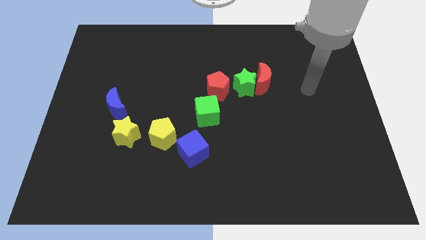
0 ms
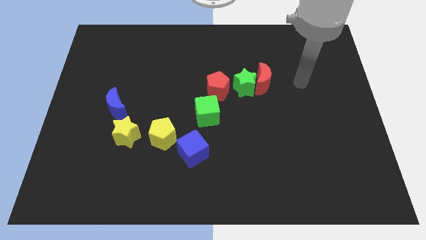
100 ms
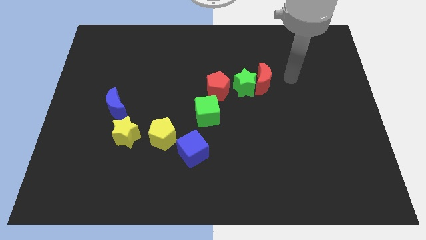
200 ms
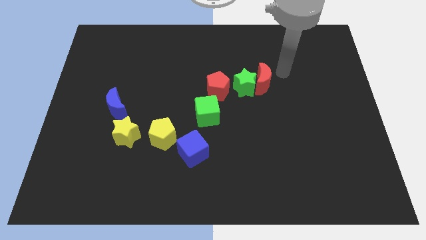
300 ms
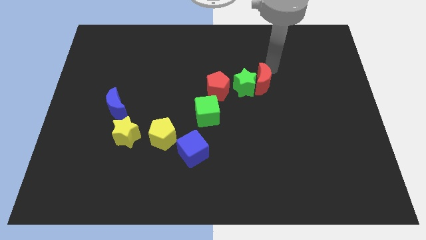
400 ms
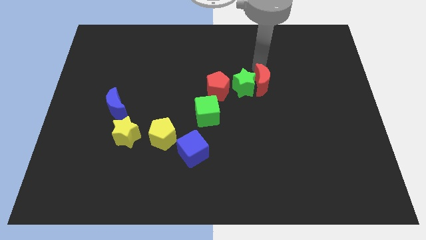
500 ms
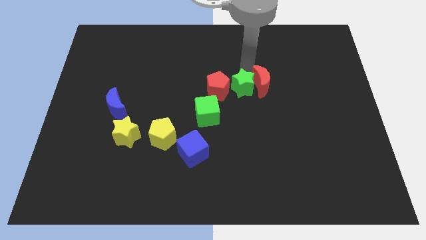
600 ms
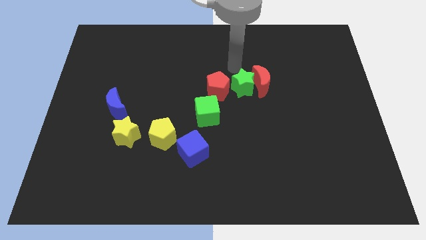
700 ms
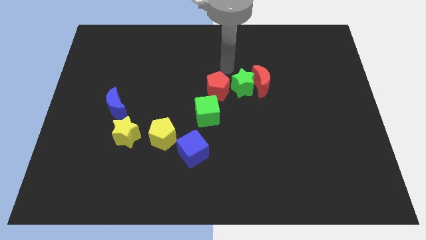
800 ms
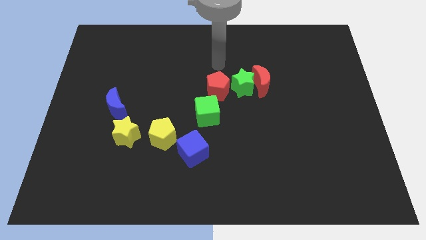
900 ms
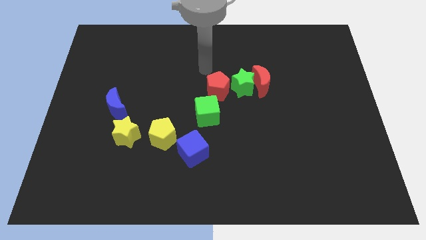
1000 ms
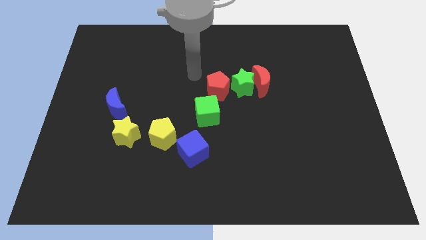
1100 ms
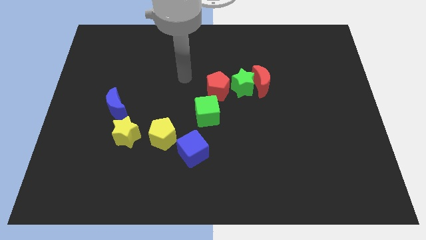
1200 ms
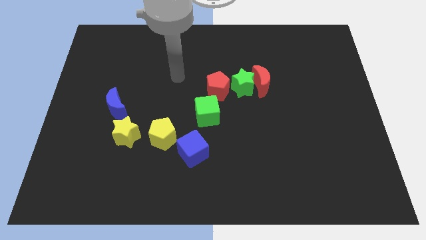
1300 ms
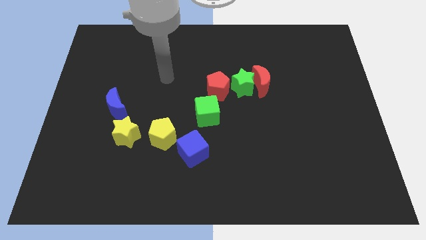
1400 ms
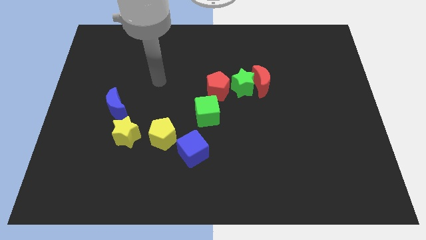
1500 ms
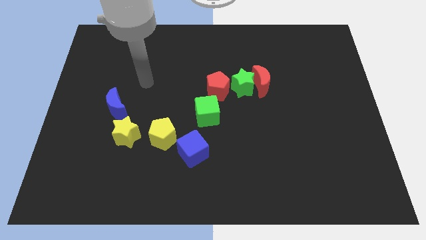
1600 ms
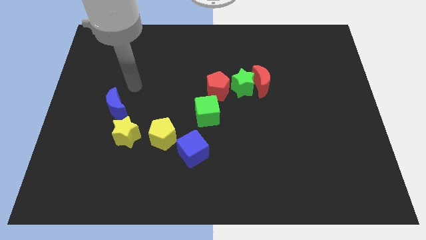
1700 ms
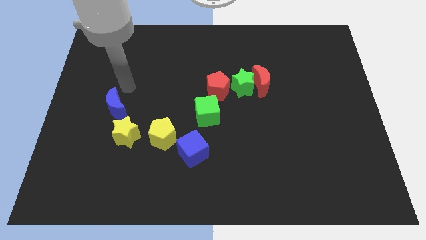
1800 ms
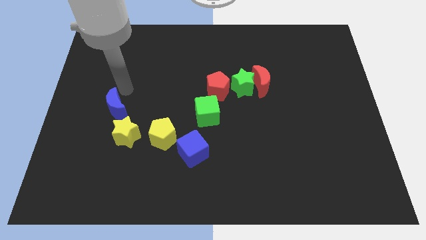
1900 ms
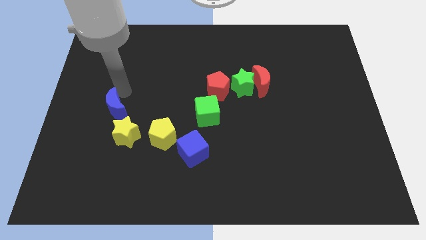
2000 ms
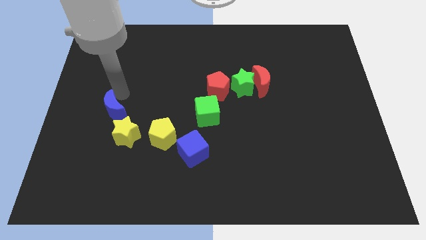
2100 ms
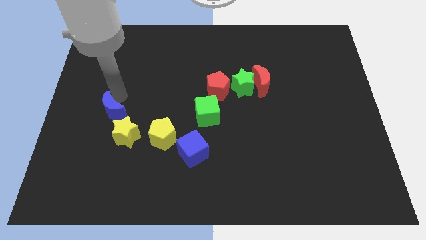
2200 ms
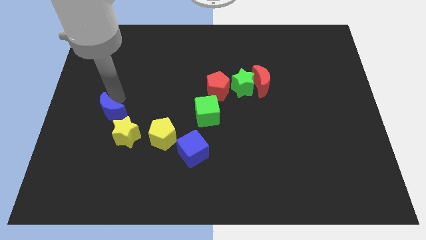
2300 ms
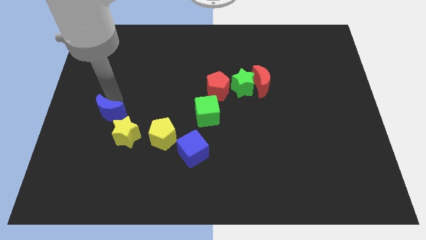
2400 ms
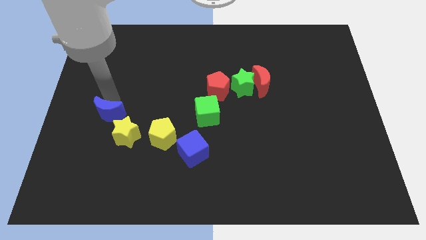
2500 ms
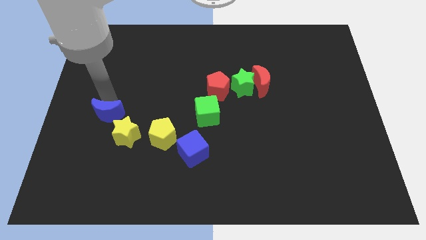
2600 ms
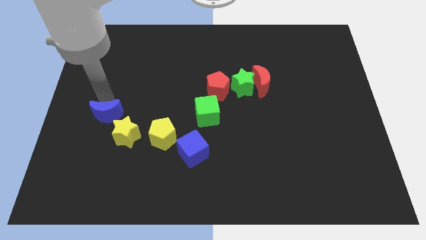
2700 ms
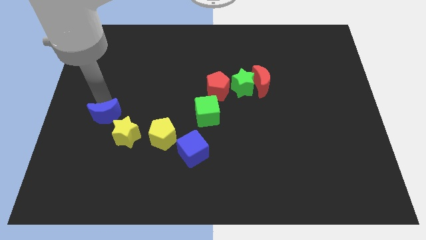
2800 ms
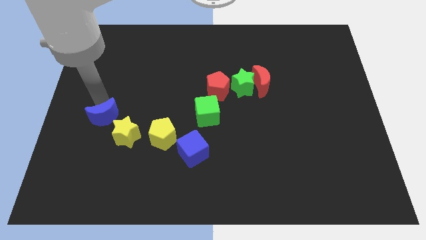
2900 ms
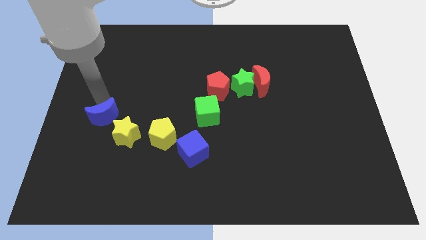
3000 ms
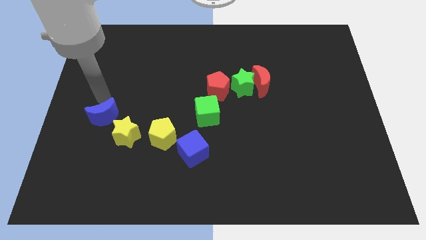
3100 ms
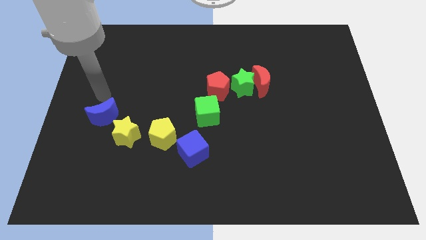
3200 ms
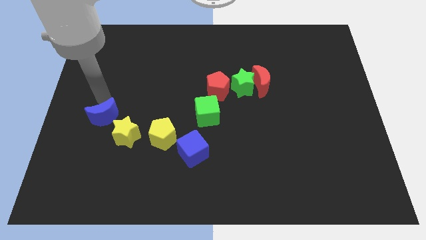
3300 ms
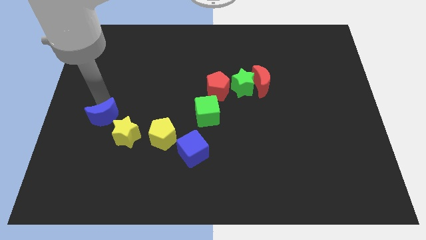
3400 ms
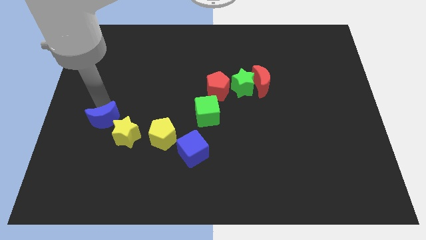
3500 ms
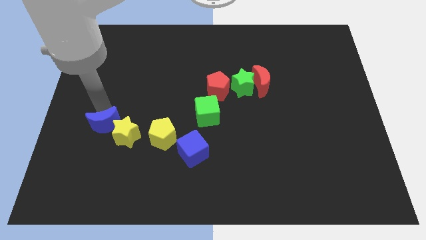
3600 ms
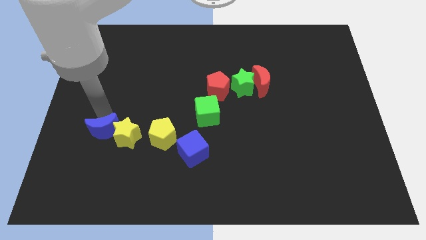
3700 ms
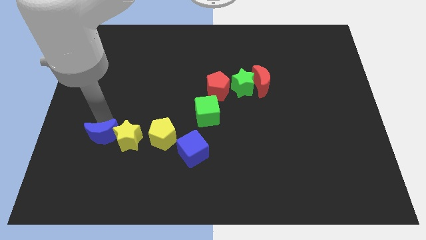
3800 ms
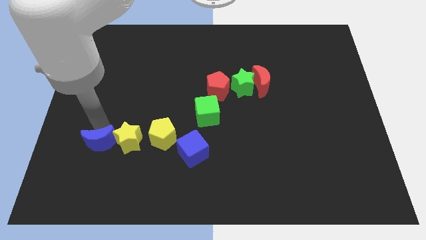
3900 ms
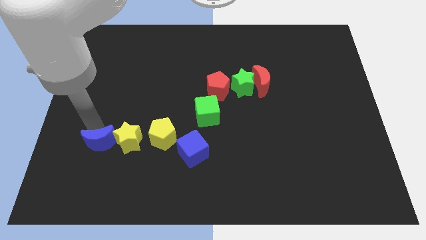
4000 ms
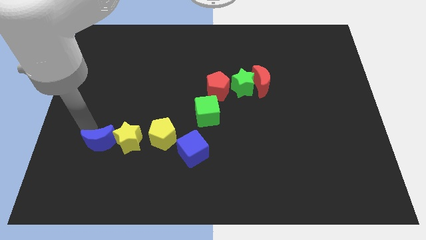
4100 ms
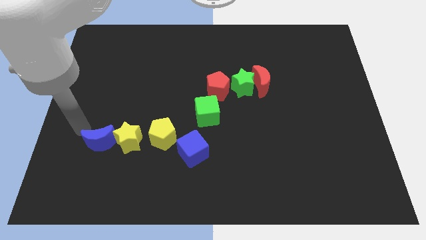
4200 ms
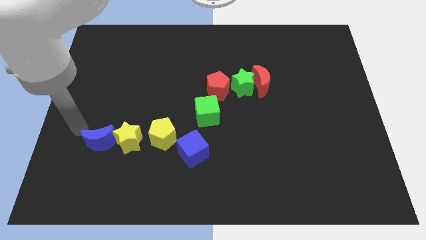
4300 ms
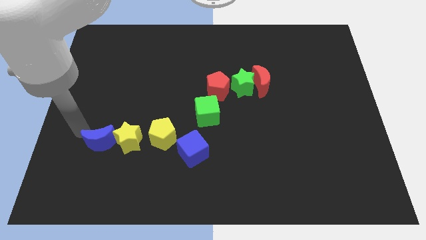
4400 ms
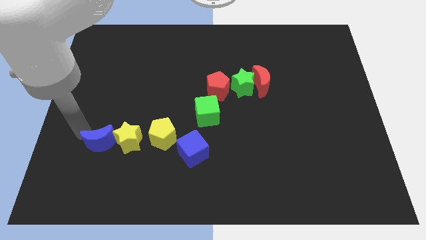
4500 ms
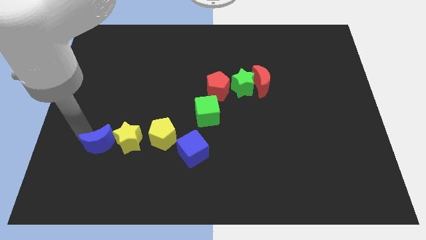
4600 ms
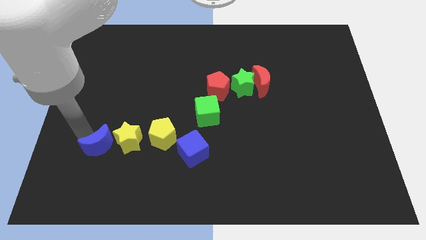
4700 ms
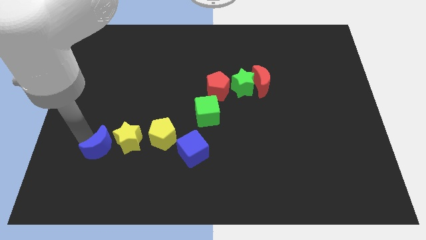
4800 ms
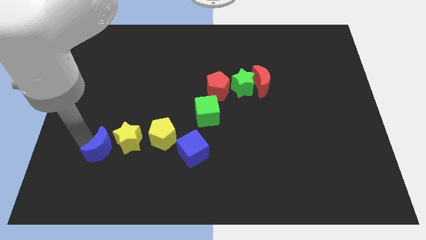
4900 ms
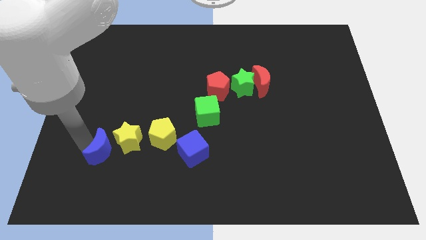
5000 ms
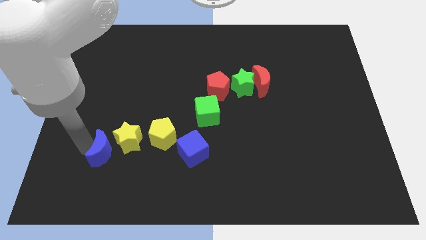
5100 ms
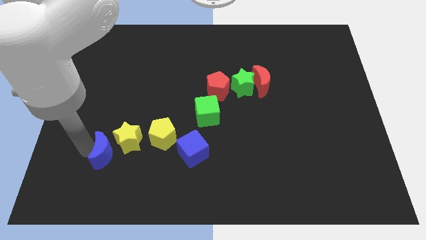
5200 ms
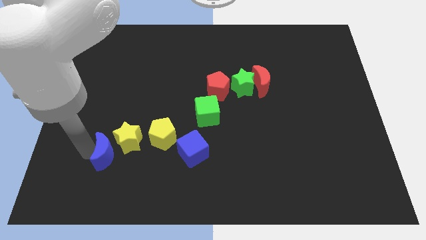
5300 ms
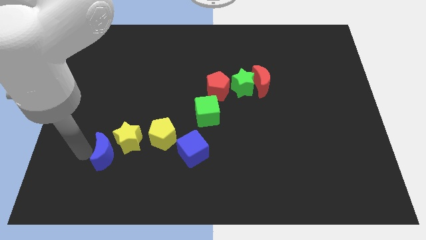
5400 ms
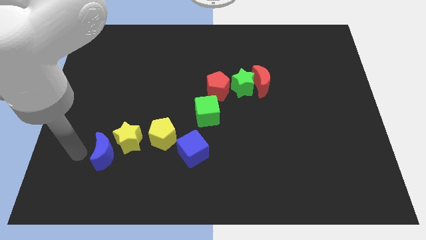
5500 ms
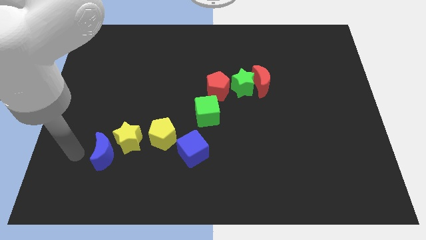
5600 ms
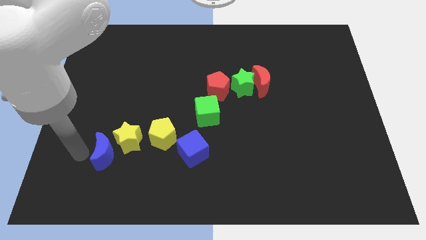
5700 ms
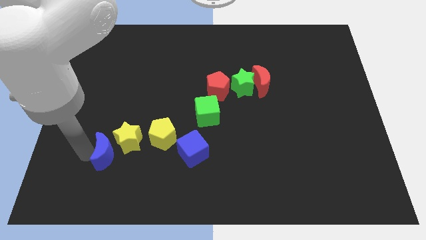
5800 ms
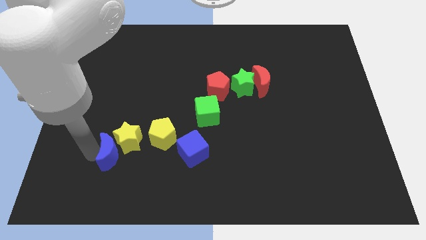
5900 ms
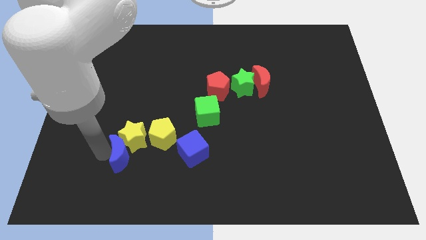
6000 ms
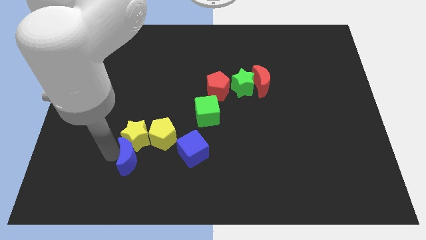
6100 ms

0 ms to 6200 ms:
push the blue moon to the bottom right of the yellow star

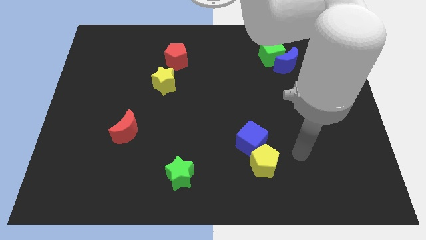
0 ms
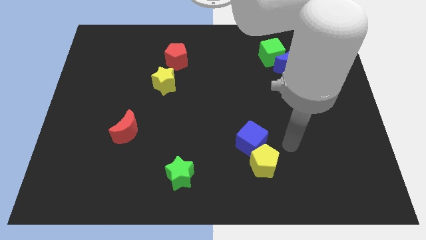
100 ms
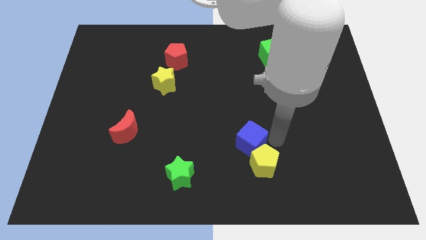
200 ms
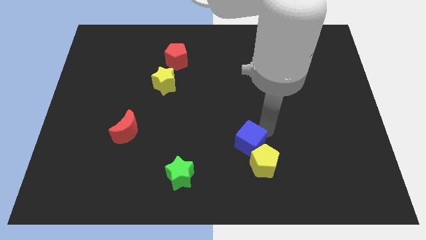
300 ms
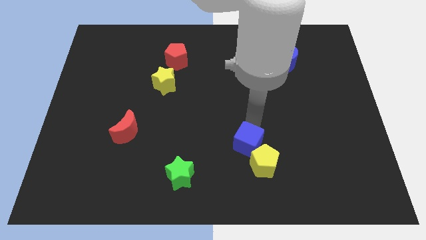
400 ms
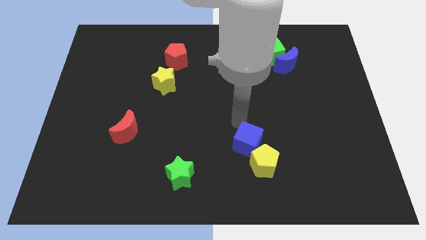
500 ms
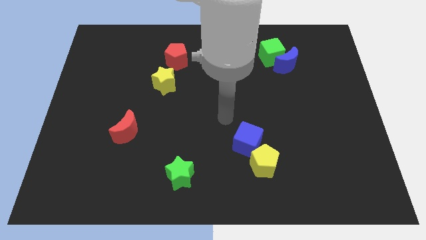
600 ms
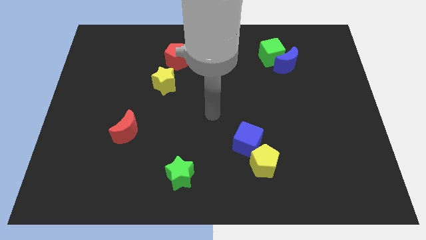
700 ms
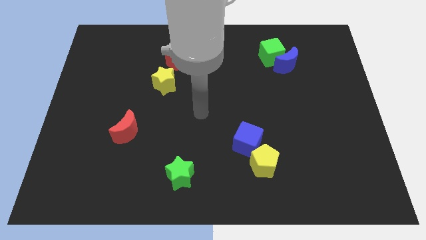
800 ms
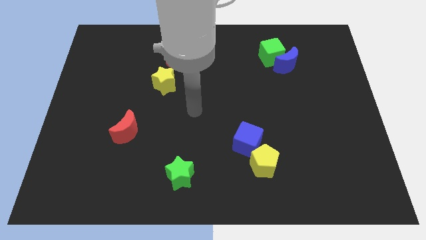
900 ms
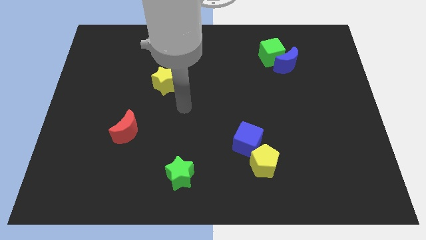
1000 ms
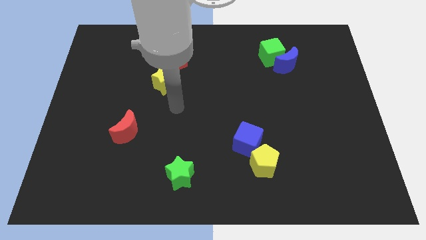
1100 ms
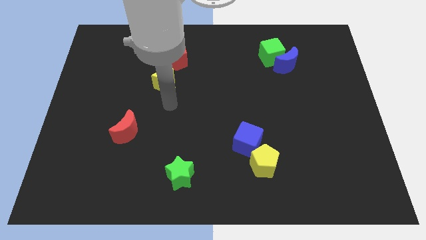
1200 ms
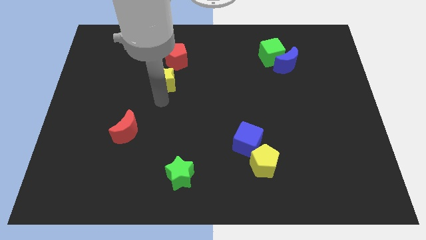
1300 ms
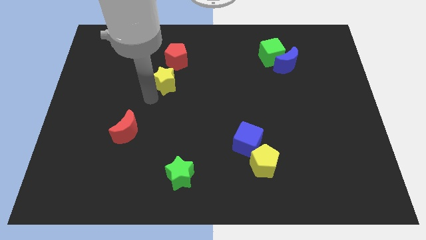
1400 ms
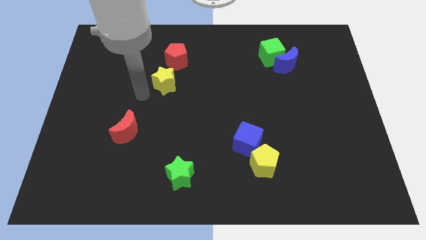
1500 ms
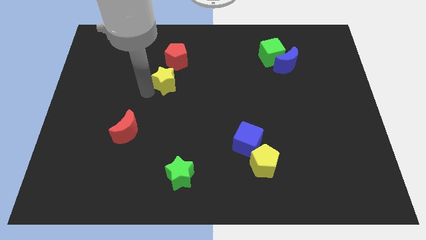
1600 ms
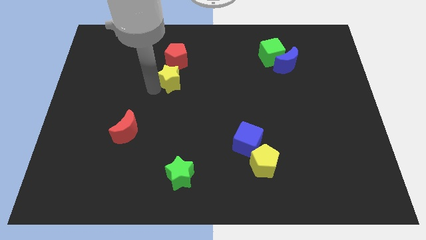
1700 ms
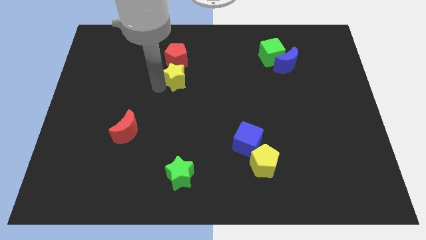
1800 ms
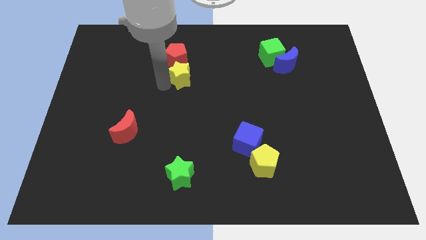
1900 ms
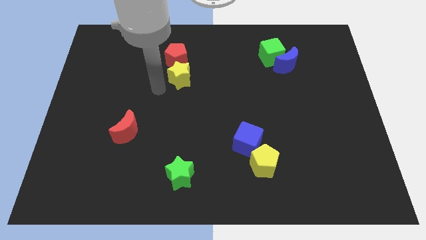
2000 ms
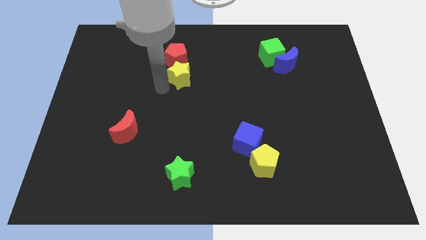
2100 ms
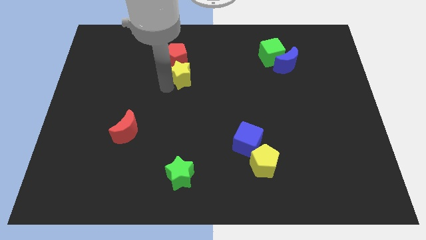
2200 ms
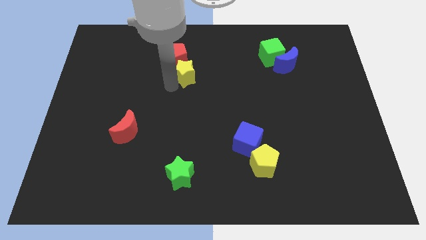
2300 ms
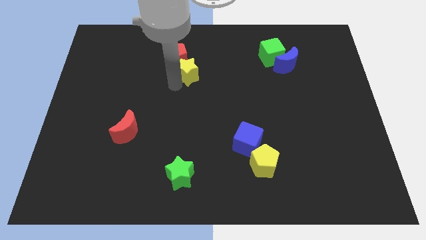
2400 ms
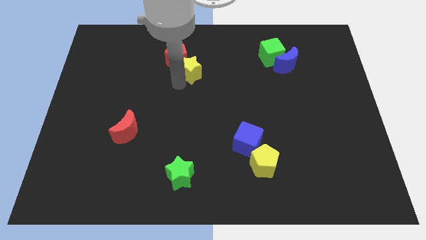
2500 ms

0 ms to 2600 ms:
push the yellow star to the right side of the red pentagon
